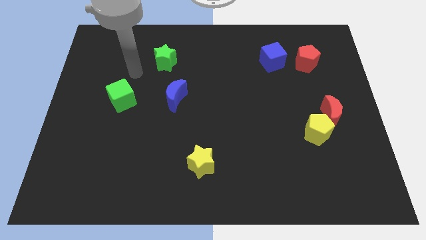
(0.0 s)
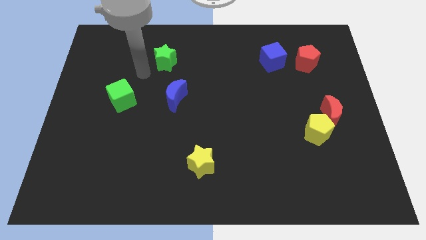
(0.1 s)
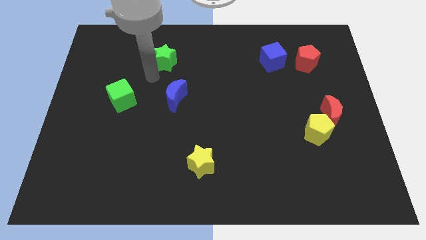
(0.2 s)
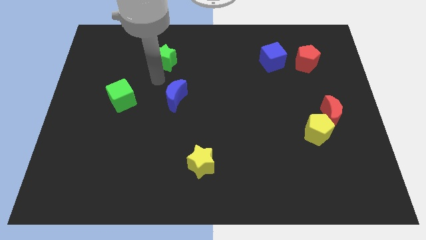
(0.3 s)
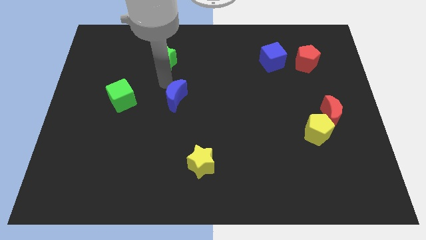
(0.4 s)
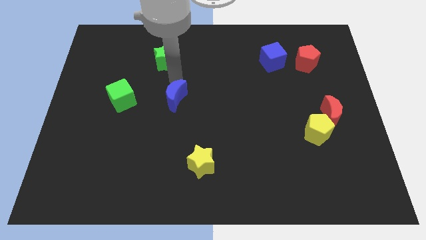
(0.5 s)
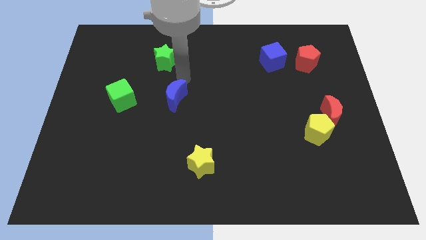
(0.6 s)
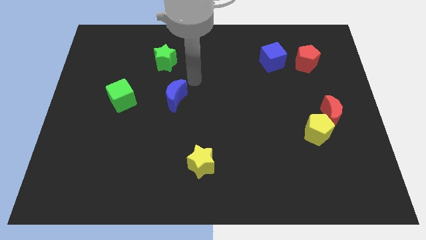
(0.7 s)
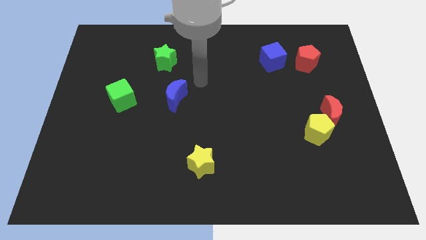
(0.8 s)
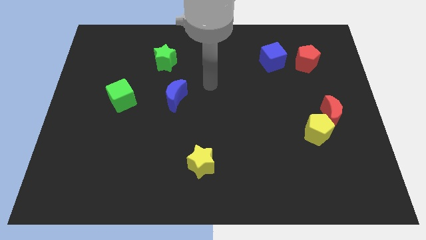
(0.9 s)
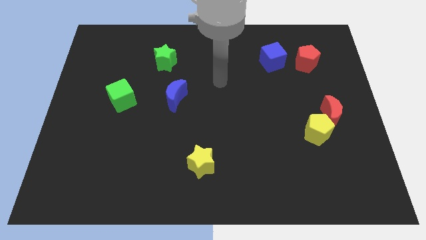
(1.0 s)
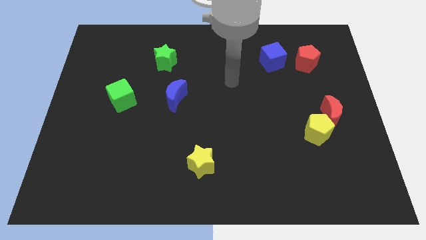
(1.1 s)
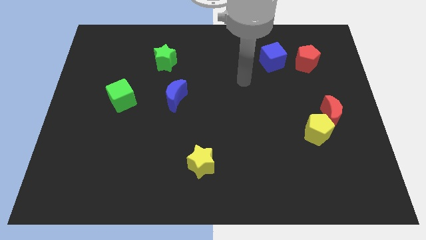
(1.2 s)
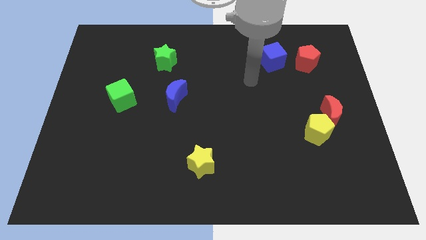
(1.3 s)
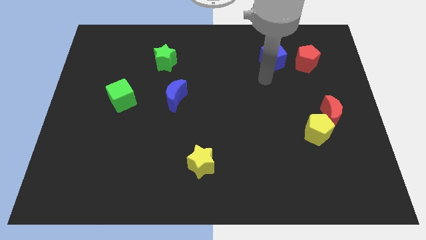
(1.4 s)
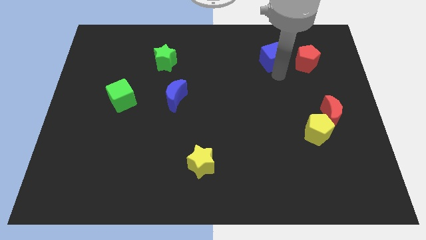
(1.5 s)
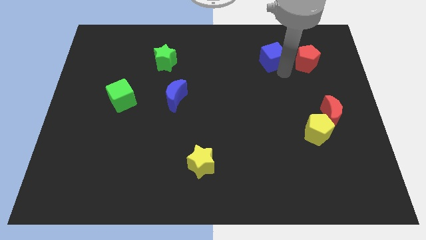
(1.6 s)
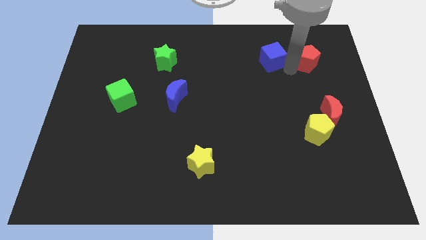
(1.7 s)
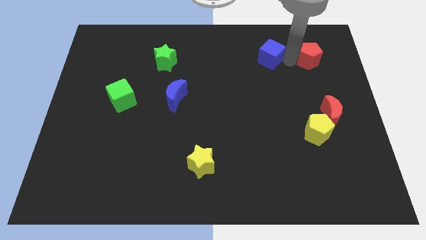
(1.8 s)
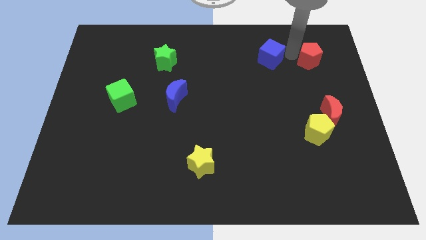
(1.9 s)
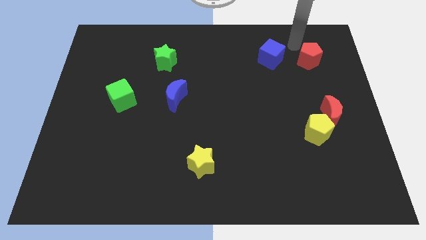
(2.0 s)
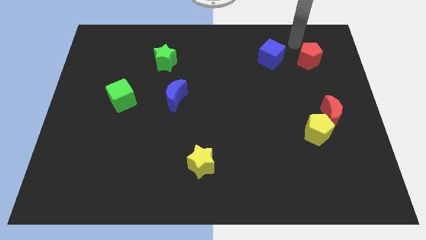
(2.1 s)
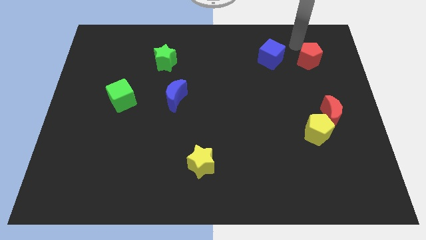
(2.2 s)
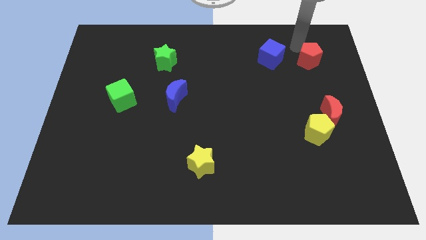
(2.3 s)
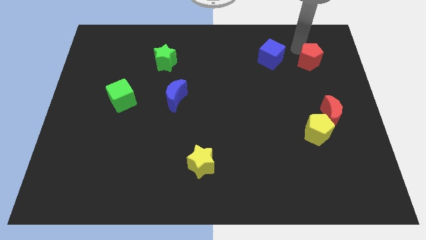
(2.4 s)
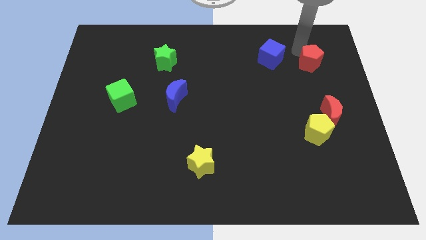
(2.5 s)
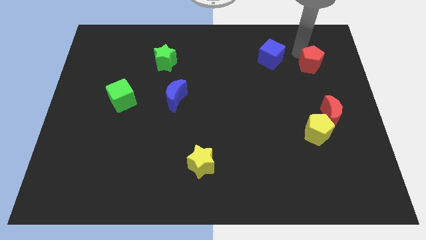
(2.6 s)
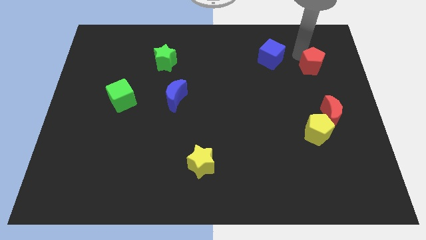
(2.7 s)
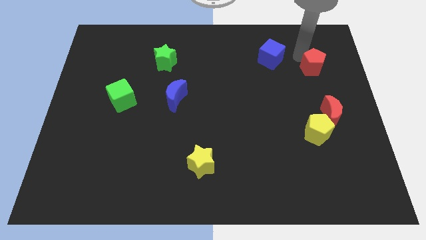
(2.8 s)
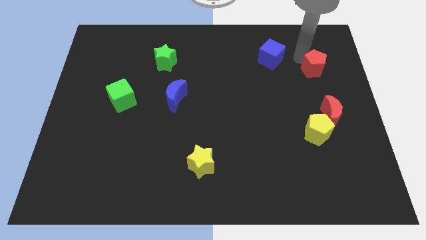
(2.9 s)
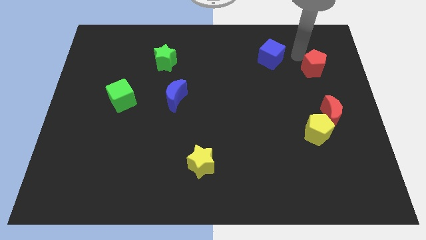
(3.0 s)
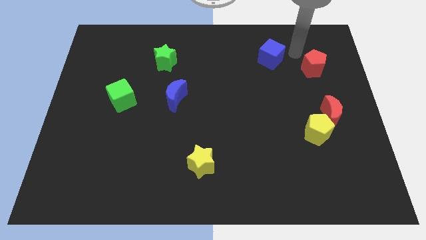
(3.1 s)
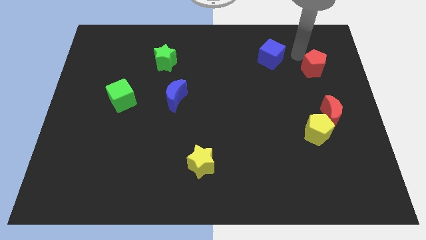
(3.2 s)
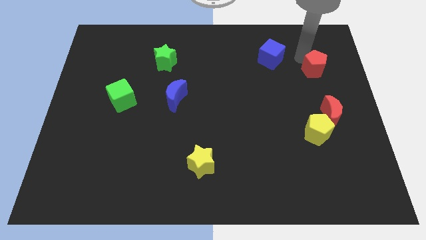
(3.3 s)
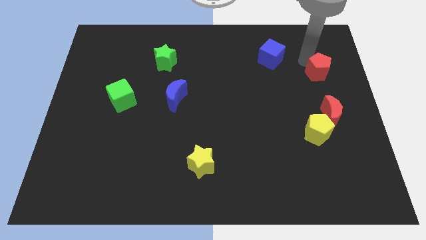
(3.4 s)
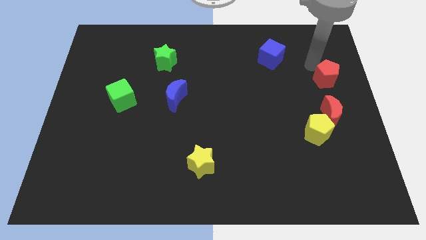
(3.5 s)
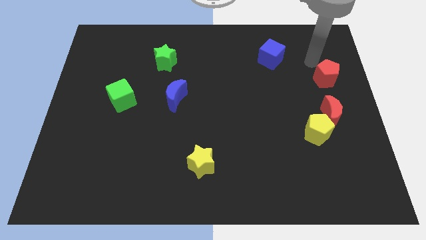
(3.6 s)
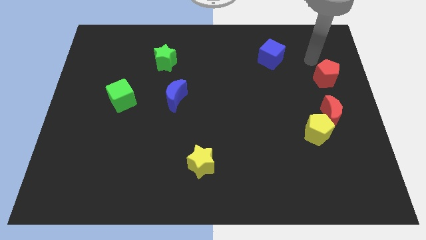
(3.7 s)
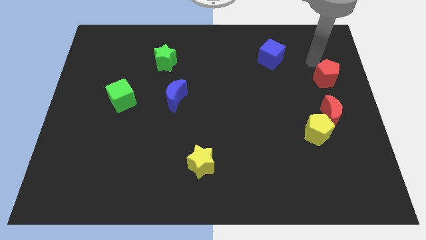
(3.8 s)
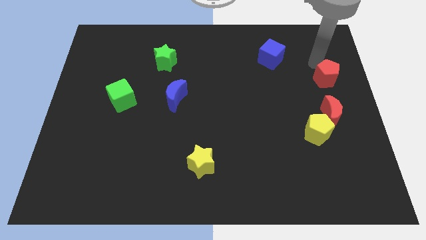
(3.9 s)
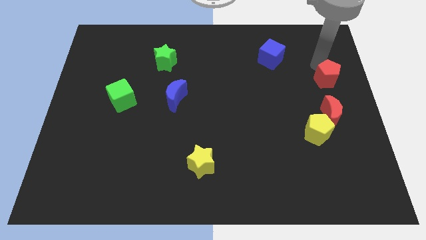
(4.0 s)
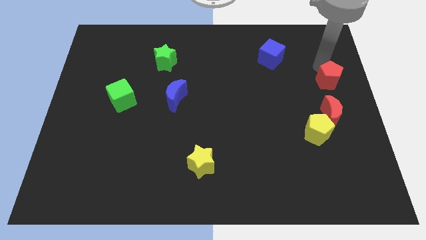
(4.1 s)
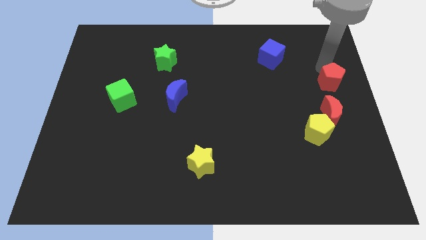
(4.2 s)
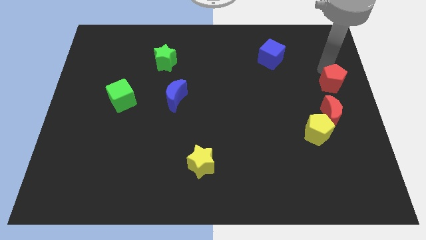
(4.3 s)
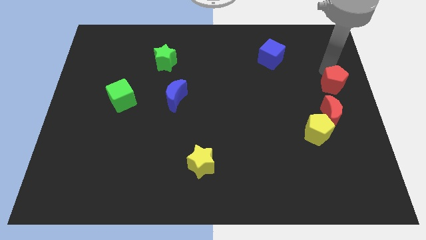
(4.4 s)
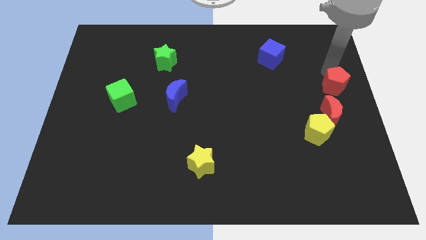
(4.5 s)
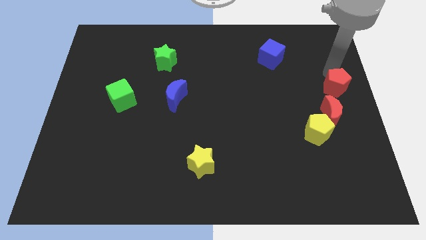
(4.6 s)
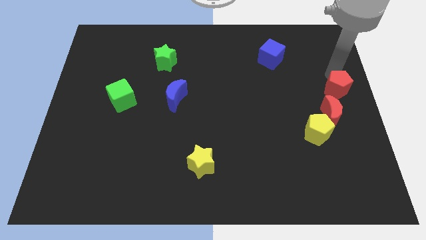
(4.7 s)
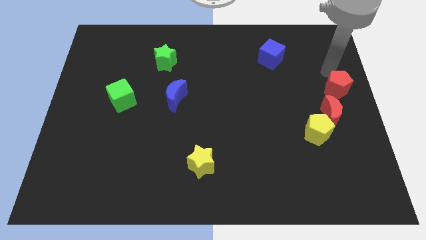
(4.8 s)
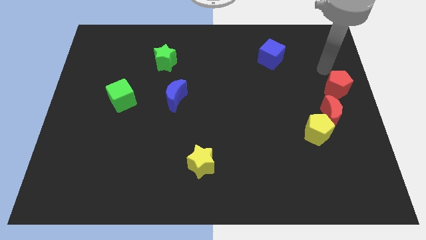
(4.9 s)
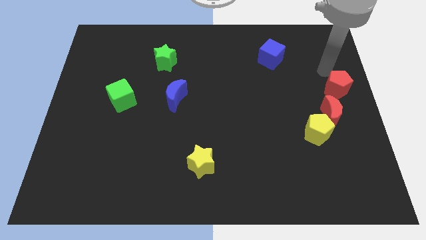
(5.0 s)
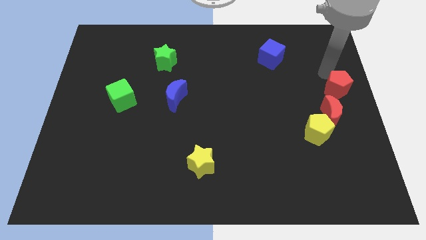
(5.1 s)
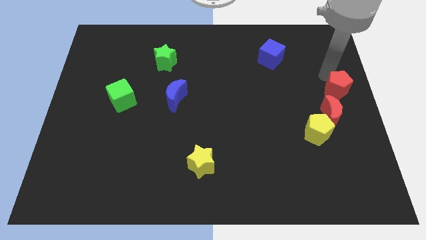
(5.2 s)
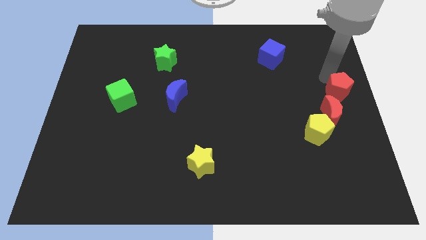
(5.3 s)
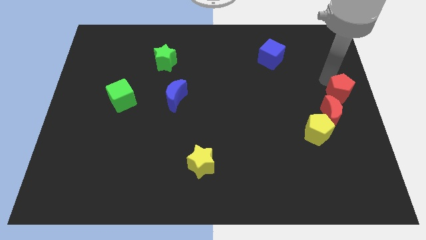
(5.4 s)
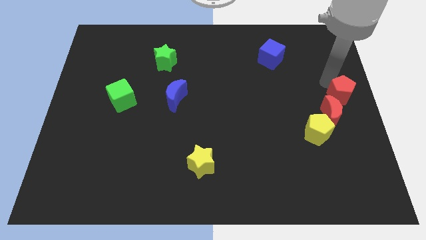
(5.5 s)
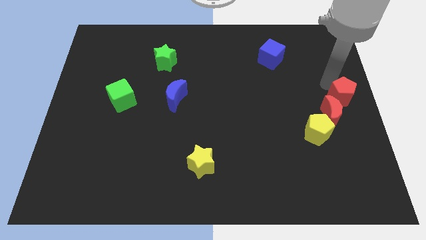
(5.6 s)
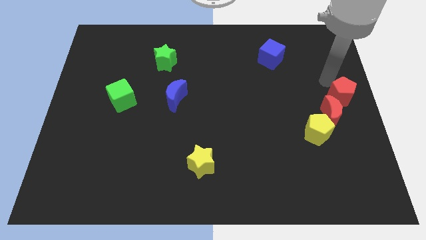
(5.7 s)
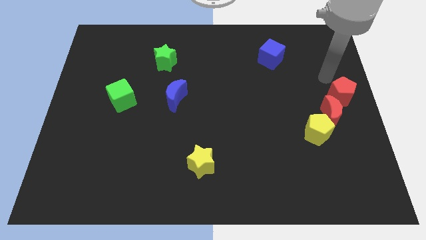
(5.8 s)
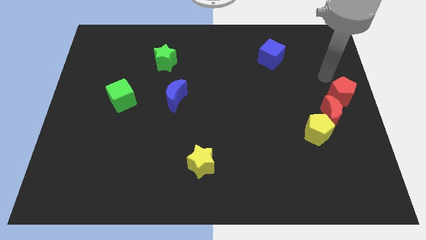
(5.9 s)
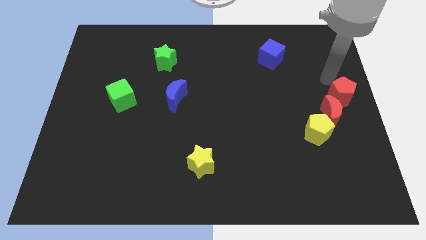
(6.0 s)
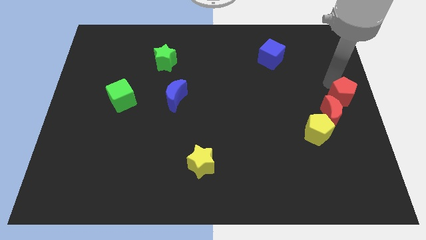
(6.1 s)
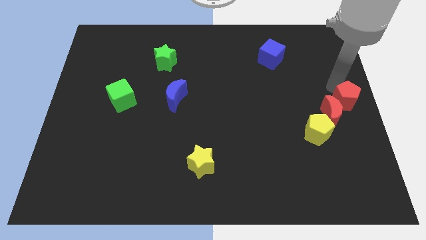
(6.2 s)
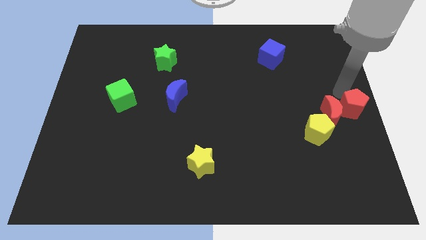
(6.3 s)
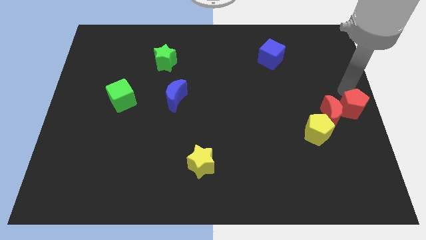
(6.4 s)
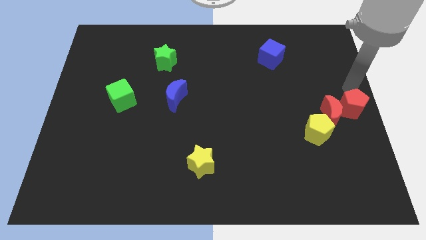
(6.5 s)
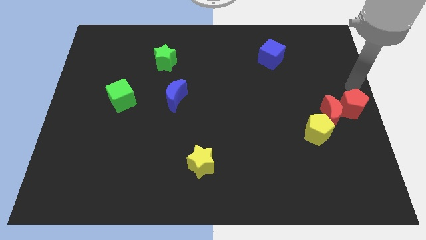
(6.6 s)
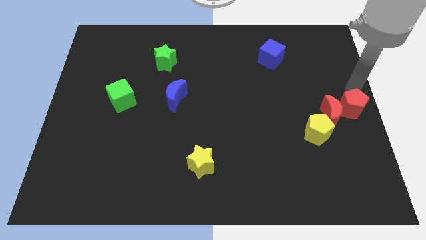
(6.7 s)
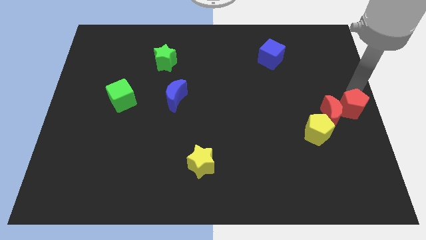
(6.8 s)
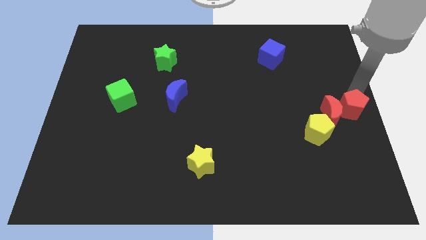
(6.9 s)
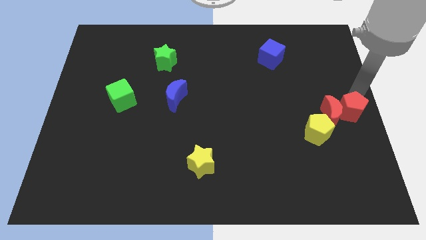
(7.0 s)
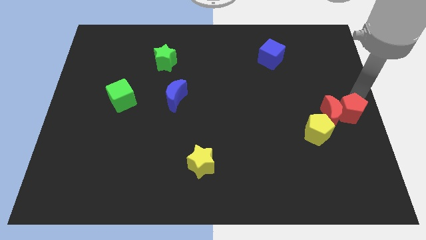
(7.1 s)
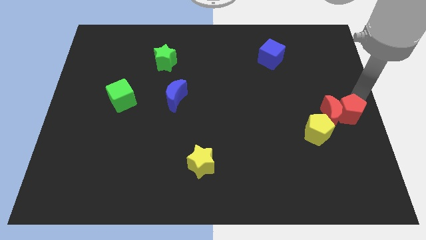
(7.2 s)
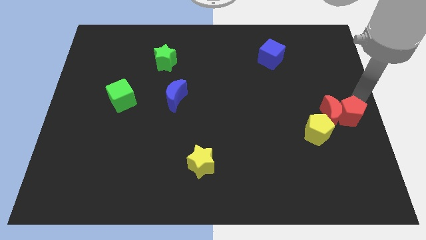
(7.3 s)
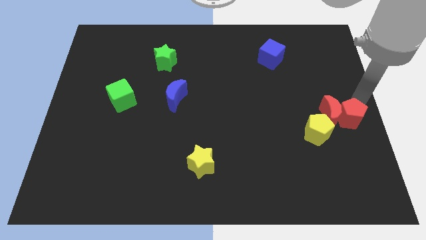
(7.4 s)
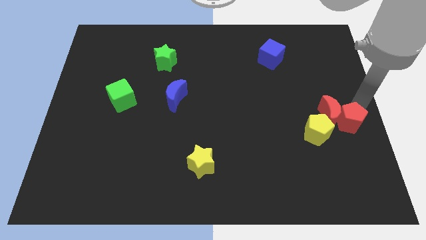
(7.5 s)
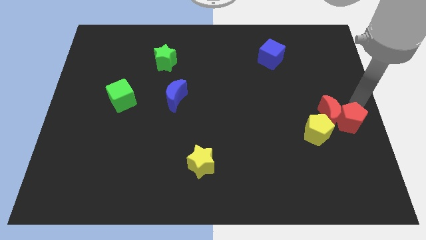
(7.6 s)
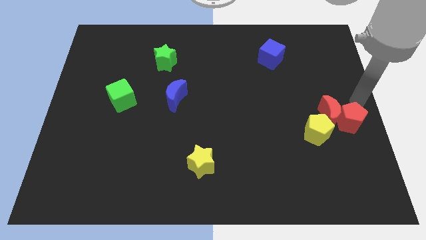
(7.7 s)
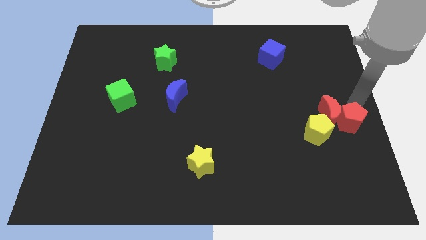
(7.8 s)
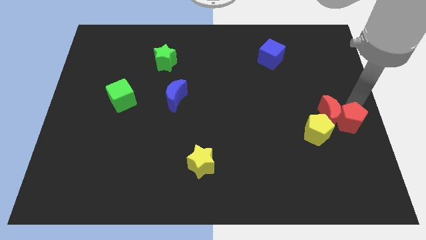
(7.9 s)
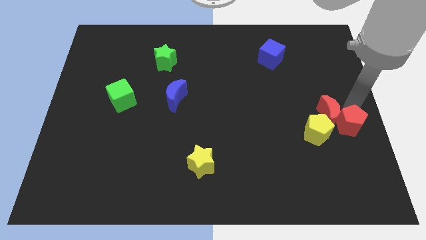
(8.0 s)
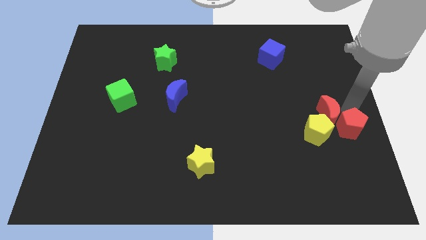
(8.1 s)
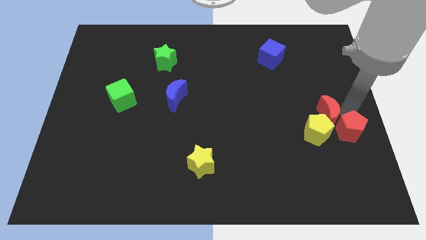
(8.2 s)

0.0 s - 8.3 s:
push the red pentagon down
